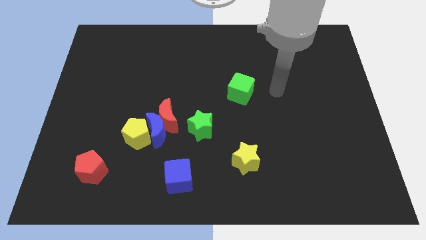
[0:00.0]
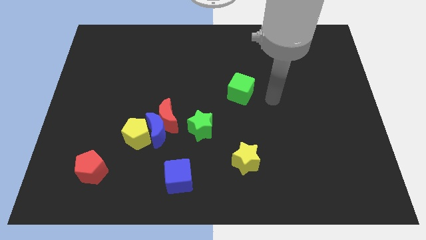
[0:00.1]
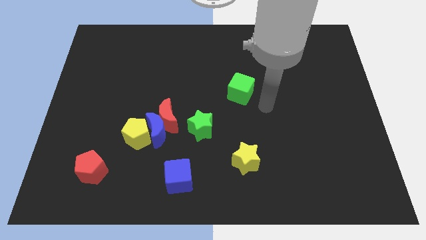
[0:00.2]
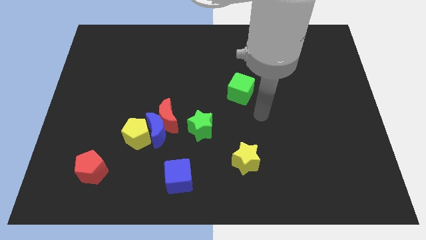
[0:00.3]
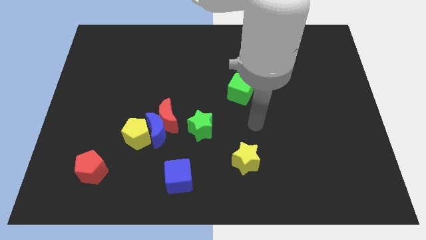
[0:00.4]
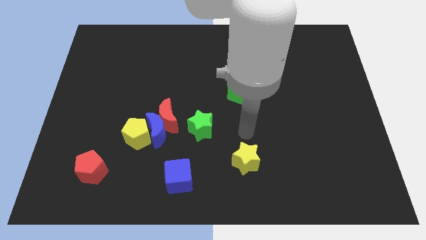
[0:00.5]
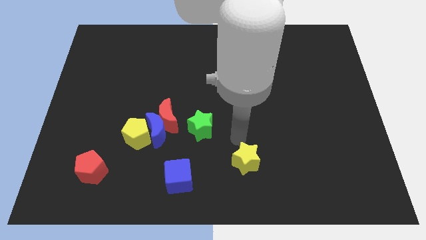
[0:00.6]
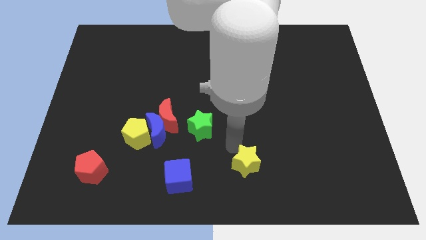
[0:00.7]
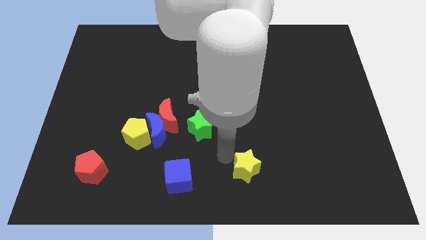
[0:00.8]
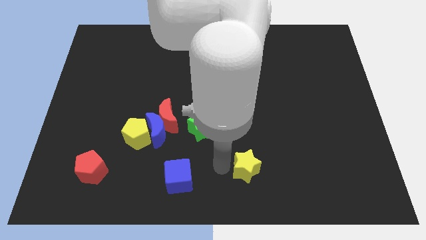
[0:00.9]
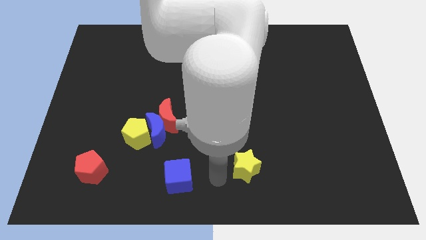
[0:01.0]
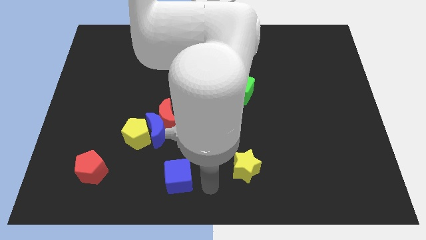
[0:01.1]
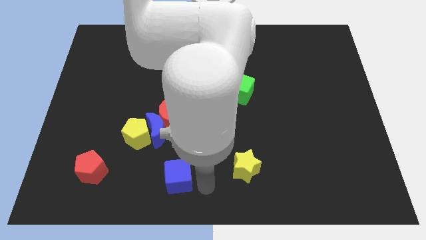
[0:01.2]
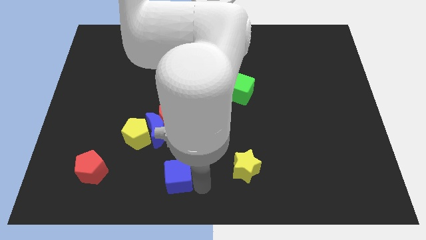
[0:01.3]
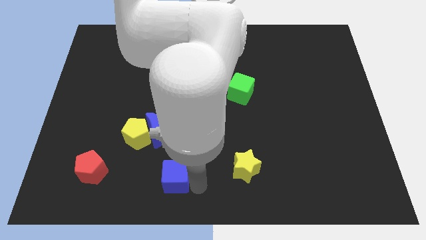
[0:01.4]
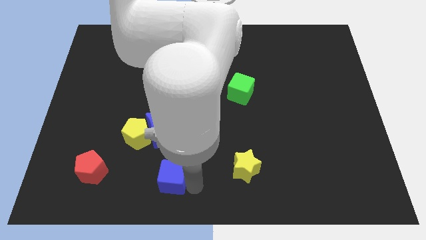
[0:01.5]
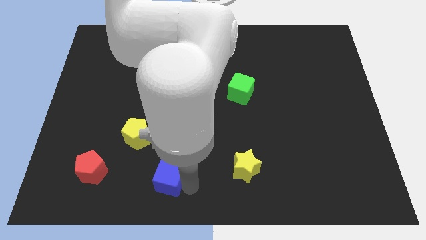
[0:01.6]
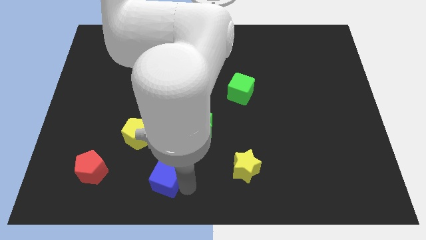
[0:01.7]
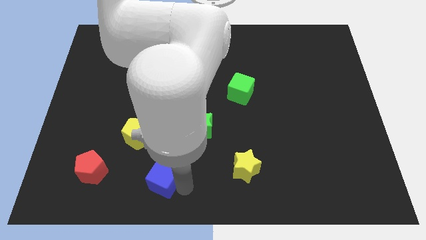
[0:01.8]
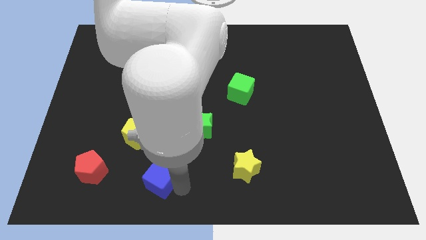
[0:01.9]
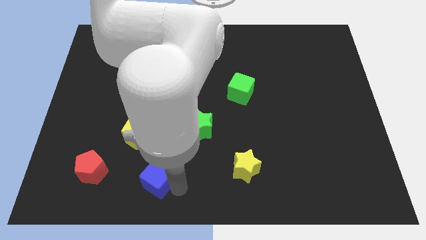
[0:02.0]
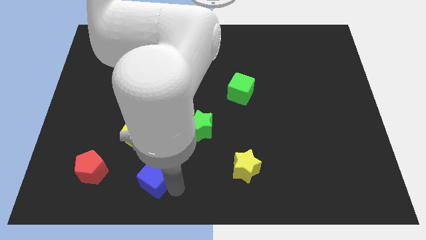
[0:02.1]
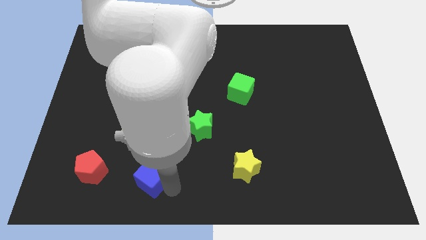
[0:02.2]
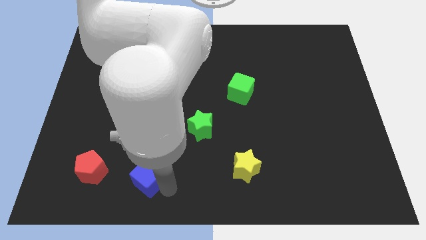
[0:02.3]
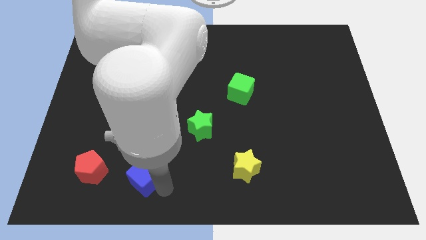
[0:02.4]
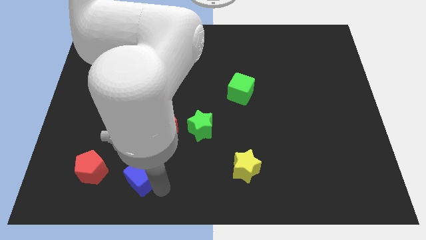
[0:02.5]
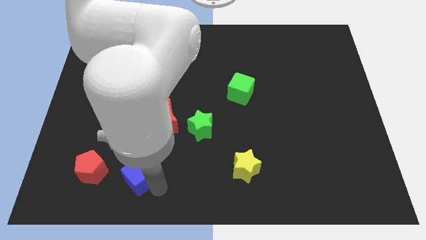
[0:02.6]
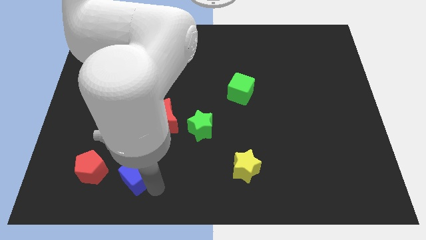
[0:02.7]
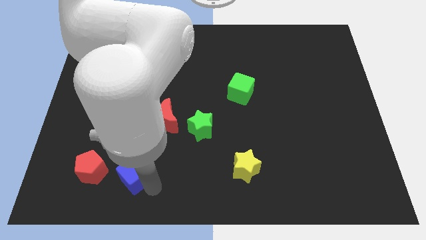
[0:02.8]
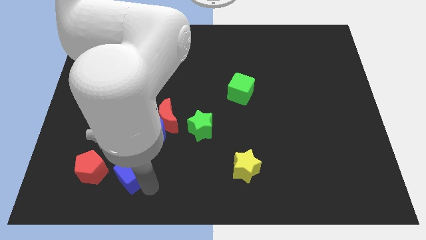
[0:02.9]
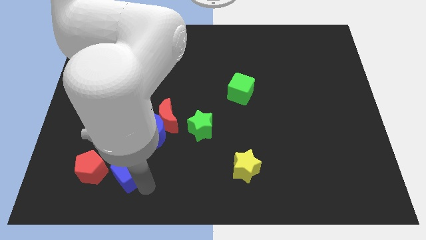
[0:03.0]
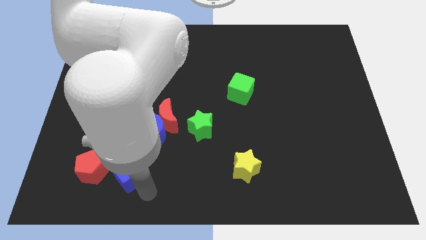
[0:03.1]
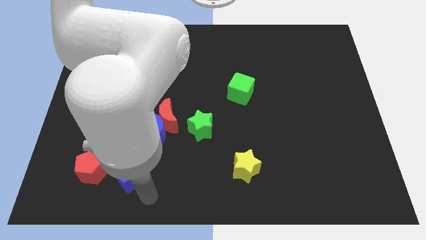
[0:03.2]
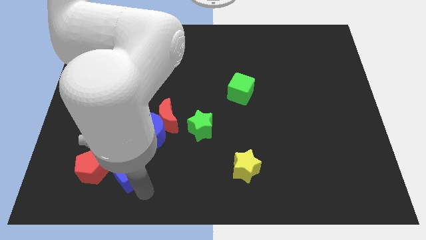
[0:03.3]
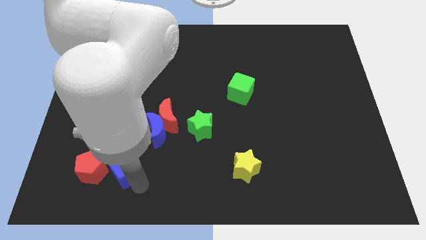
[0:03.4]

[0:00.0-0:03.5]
move the blue cube slightly upwards and then to the left

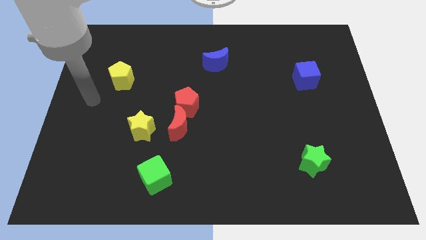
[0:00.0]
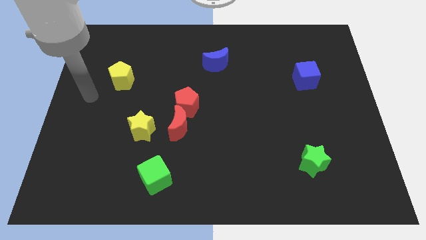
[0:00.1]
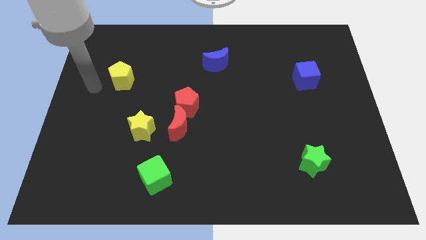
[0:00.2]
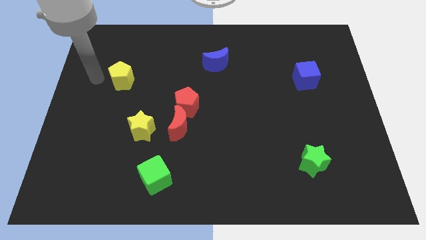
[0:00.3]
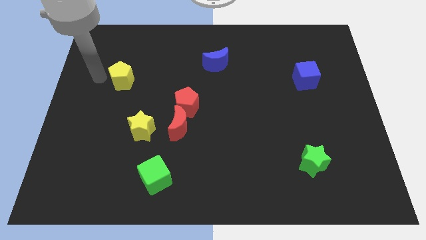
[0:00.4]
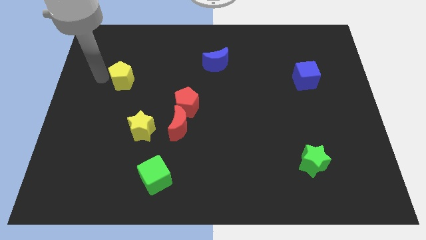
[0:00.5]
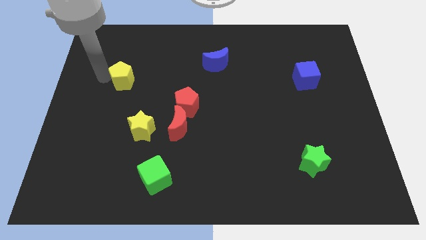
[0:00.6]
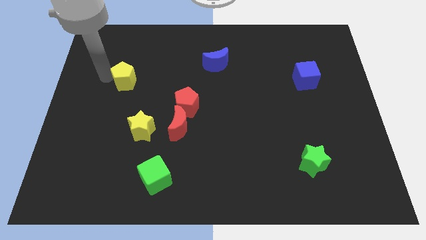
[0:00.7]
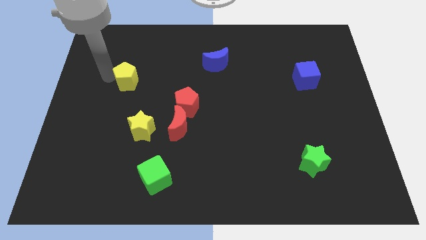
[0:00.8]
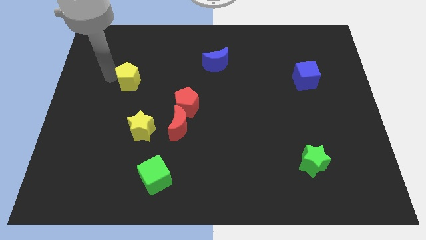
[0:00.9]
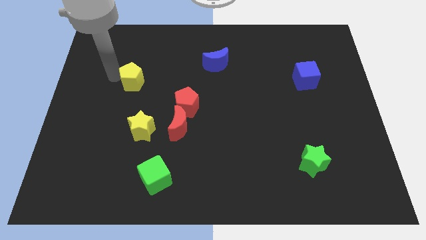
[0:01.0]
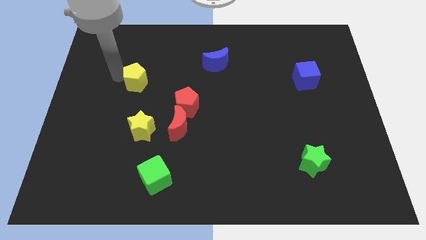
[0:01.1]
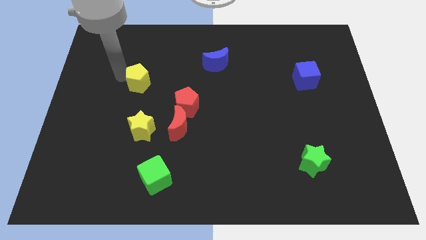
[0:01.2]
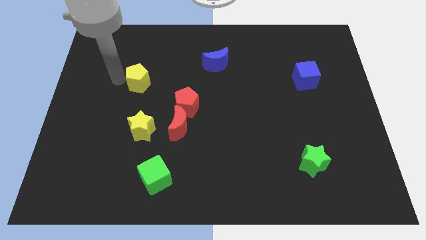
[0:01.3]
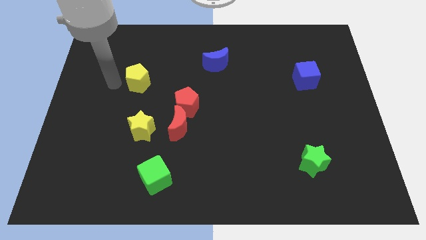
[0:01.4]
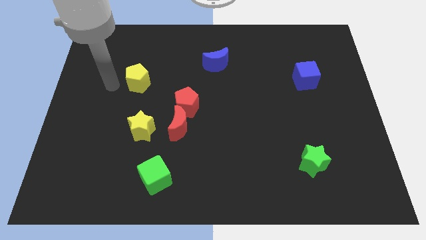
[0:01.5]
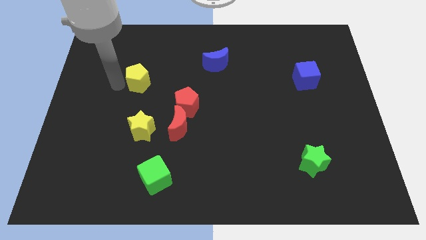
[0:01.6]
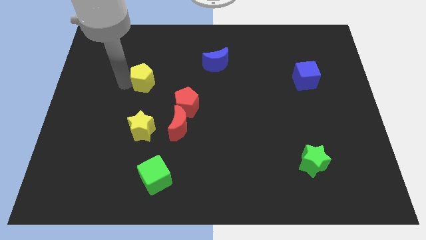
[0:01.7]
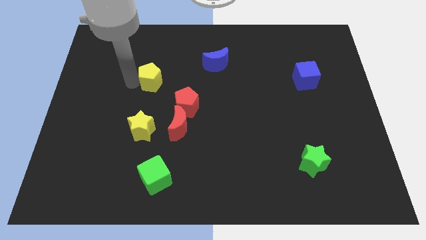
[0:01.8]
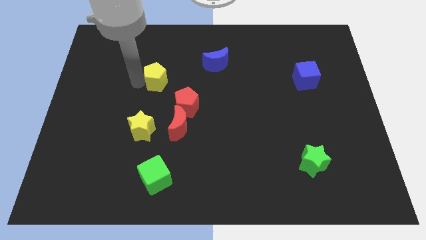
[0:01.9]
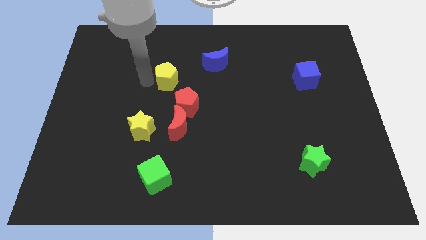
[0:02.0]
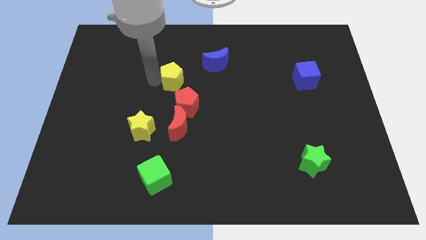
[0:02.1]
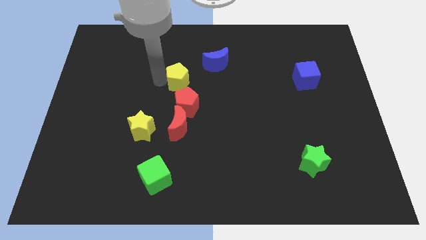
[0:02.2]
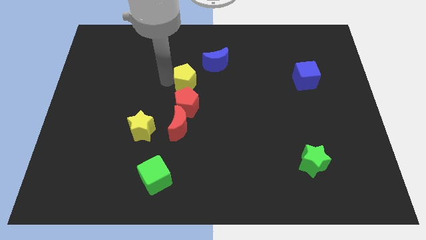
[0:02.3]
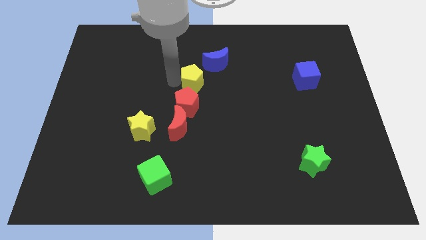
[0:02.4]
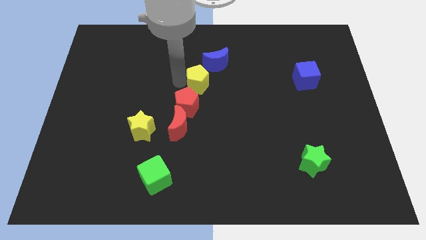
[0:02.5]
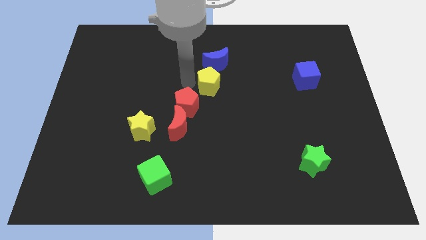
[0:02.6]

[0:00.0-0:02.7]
move the yellow pentagon to the right

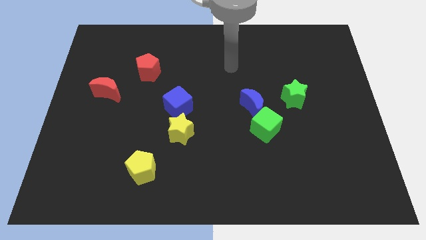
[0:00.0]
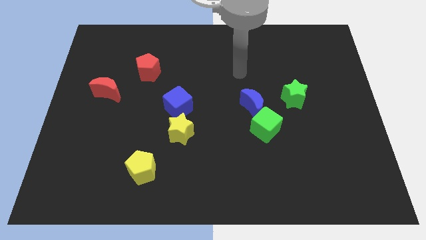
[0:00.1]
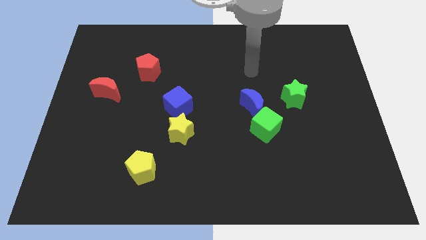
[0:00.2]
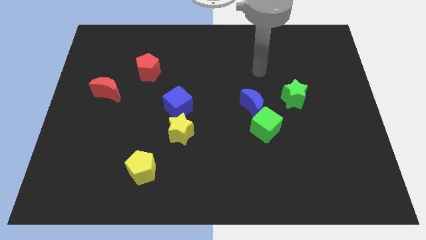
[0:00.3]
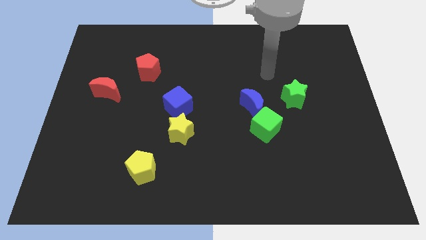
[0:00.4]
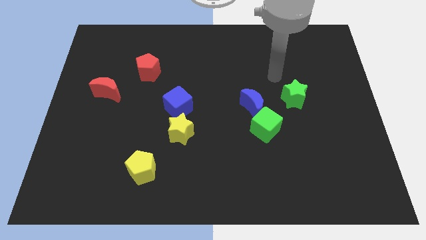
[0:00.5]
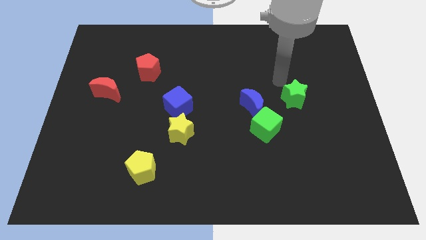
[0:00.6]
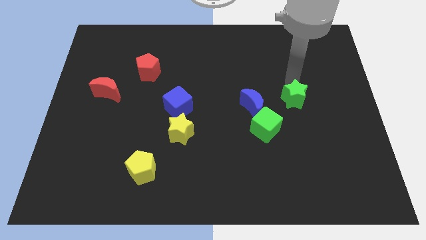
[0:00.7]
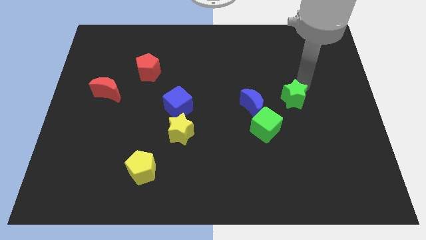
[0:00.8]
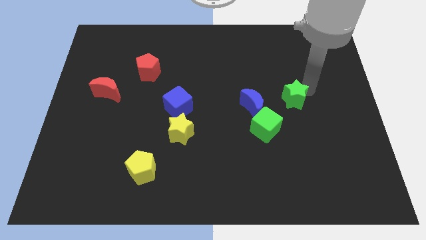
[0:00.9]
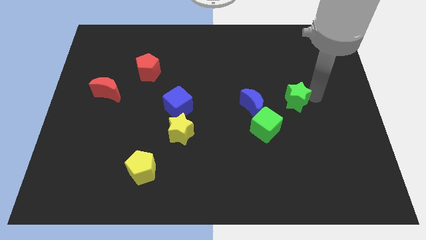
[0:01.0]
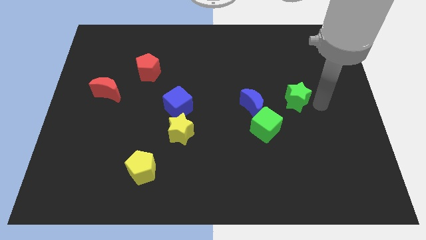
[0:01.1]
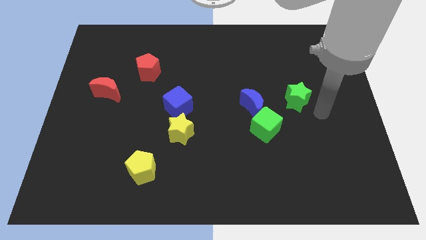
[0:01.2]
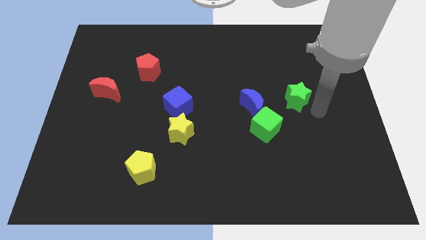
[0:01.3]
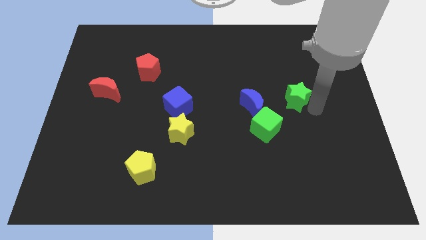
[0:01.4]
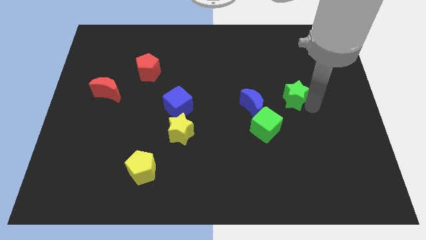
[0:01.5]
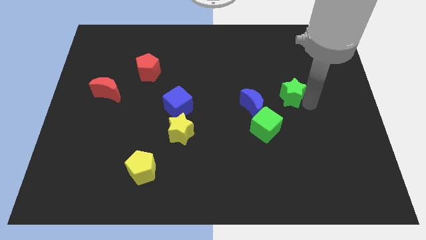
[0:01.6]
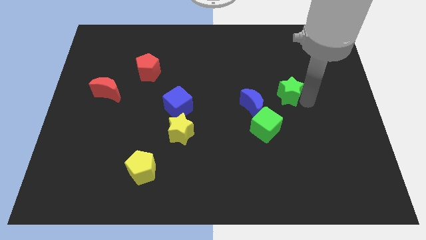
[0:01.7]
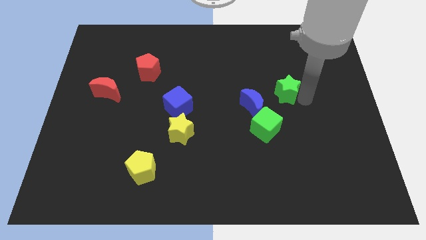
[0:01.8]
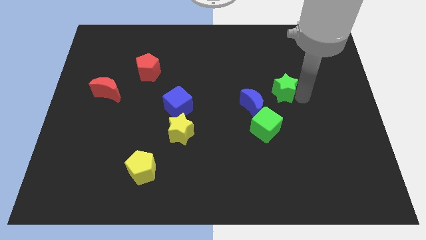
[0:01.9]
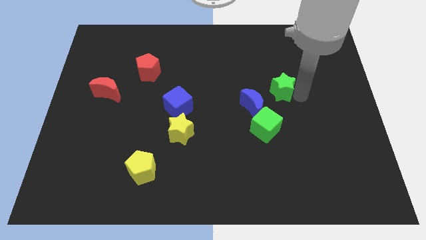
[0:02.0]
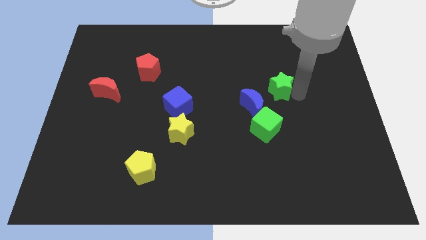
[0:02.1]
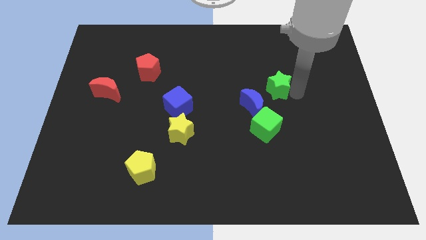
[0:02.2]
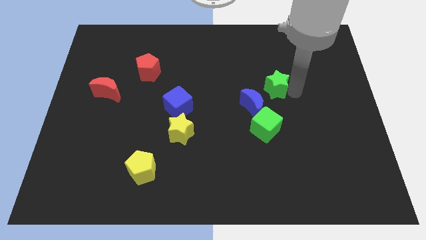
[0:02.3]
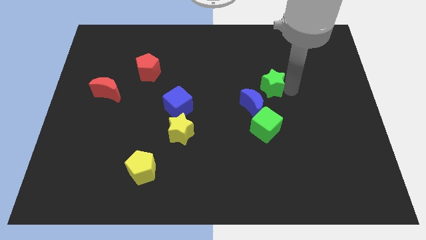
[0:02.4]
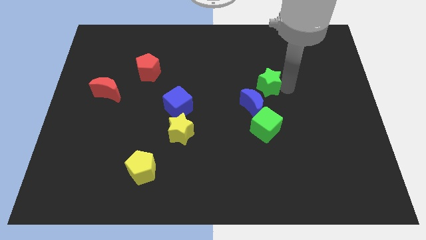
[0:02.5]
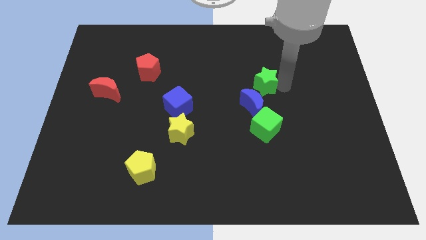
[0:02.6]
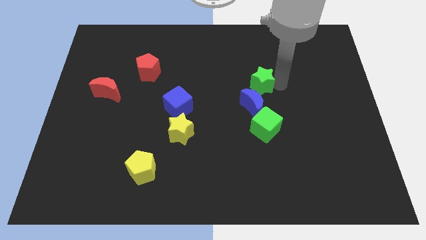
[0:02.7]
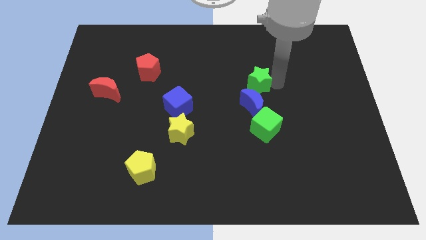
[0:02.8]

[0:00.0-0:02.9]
slightly slide the green star left
